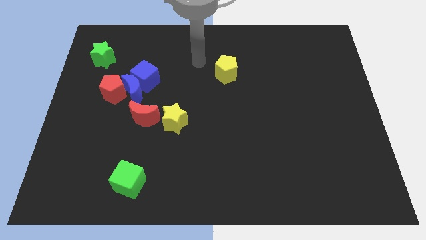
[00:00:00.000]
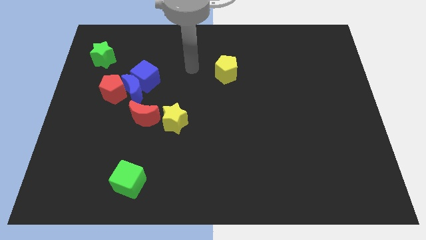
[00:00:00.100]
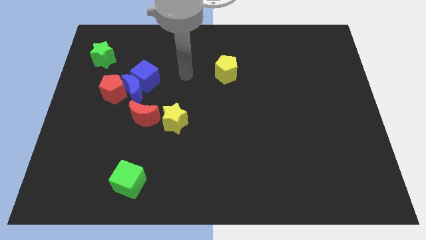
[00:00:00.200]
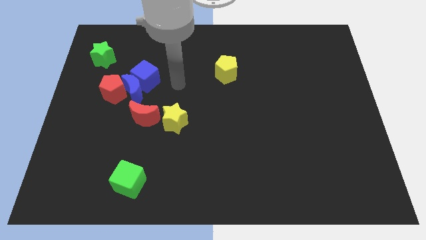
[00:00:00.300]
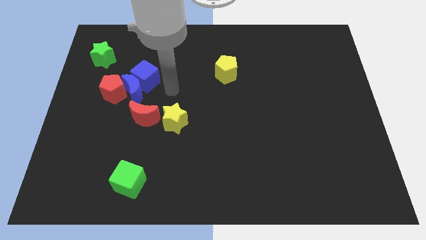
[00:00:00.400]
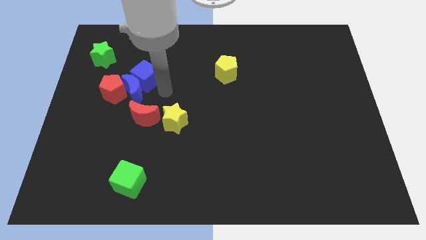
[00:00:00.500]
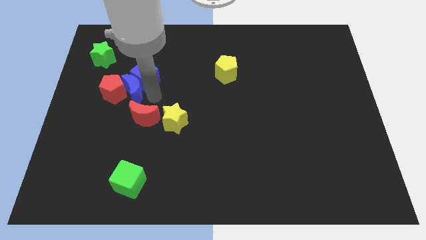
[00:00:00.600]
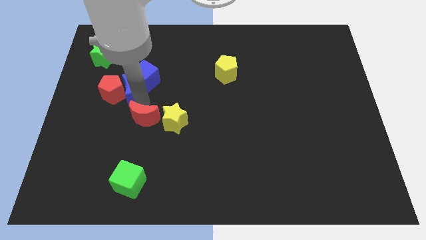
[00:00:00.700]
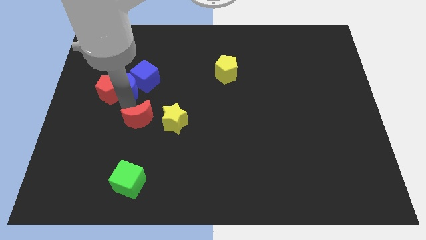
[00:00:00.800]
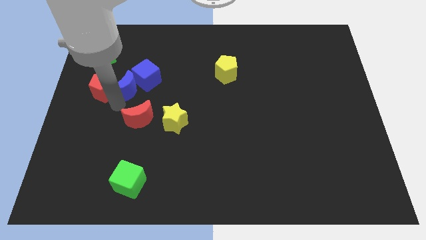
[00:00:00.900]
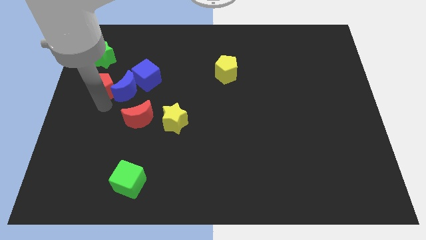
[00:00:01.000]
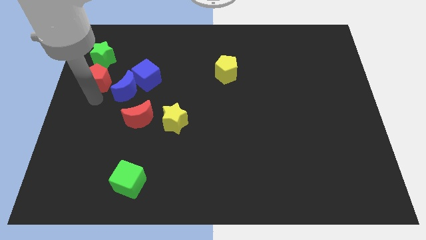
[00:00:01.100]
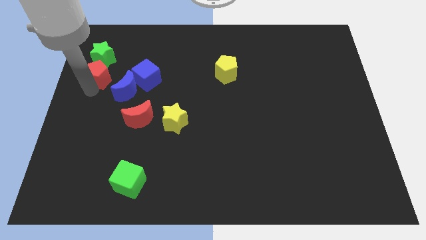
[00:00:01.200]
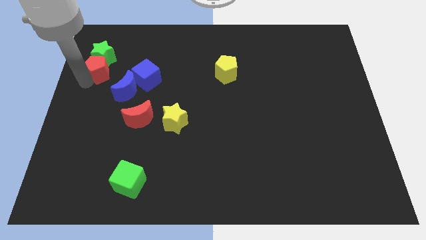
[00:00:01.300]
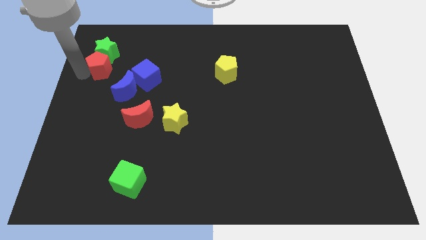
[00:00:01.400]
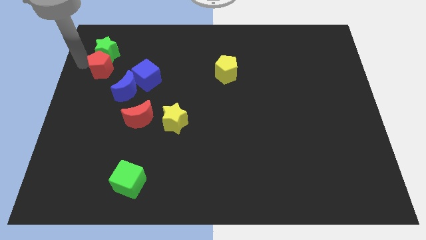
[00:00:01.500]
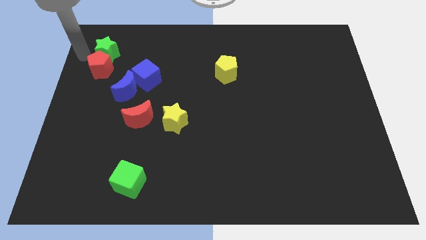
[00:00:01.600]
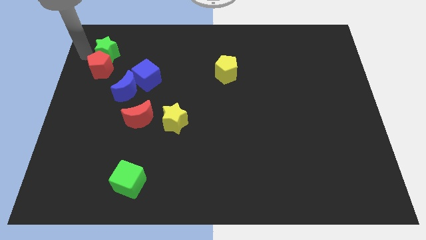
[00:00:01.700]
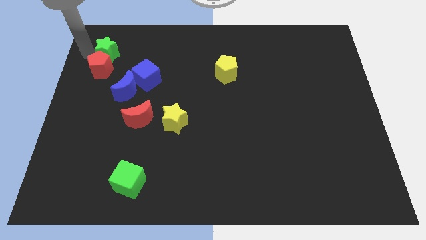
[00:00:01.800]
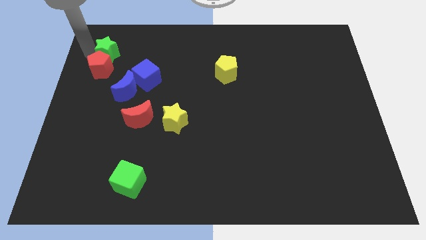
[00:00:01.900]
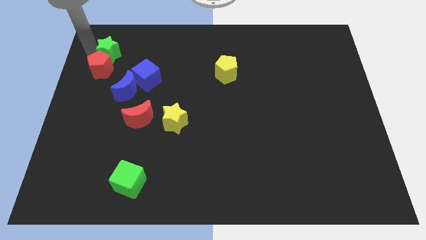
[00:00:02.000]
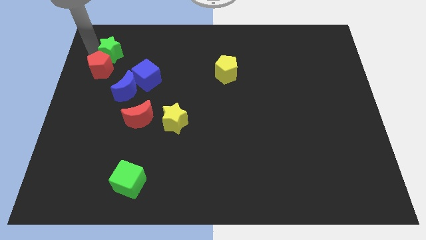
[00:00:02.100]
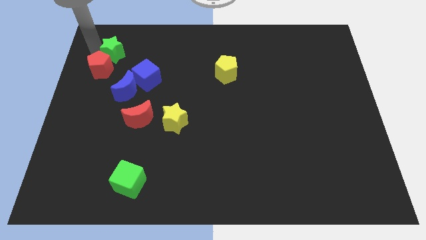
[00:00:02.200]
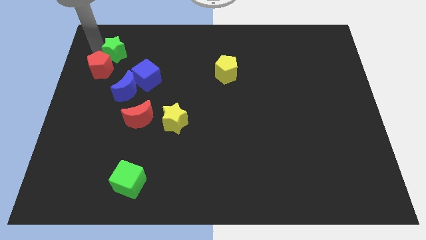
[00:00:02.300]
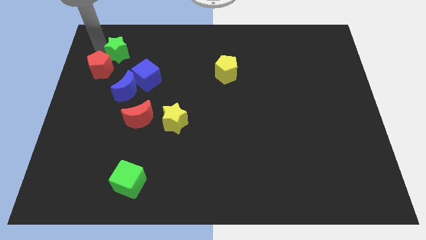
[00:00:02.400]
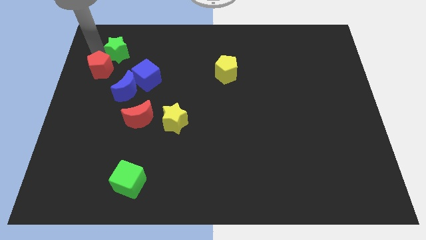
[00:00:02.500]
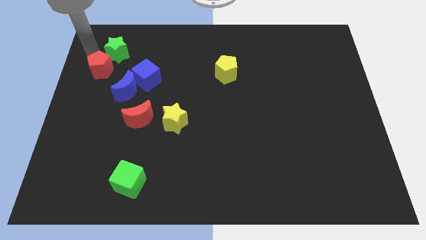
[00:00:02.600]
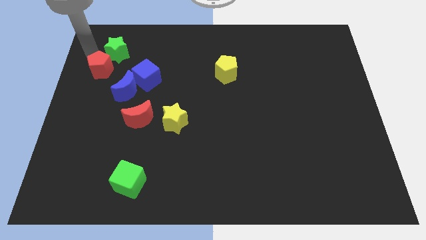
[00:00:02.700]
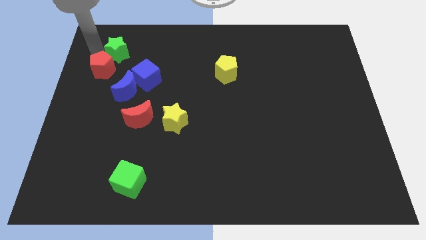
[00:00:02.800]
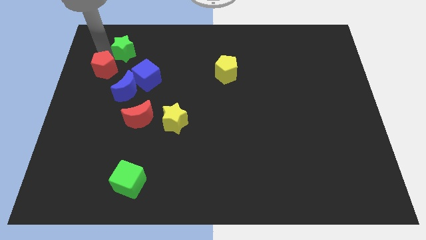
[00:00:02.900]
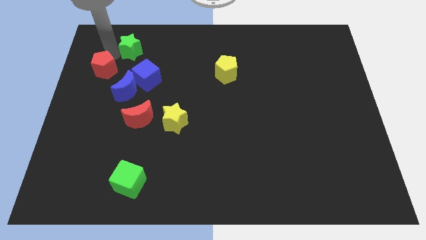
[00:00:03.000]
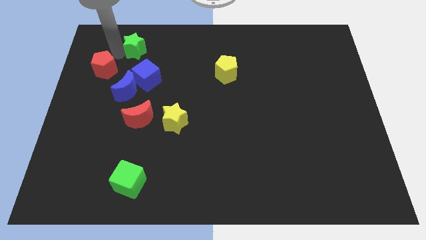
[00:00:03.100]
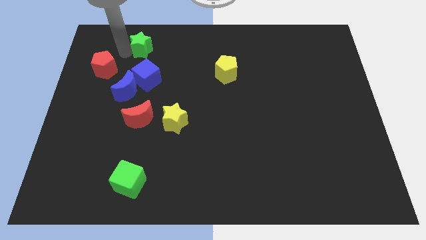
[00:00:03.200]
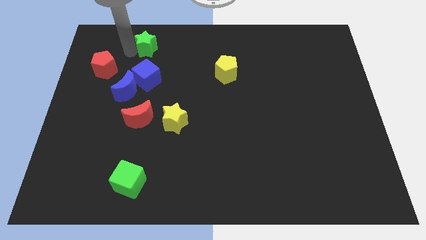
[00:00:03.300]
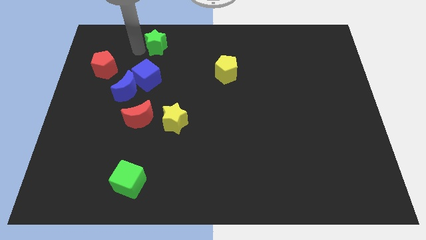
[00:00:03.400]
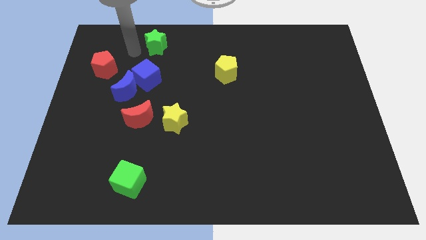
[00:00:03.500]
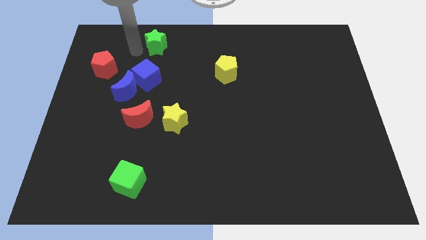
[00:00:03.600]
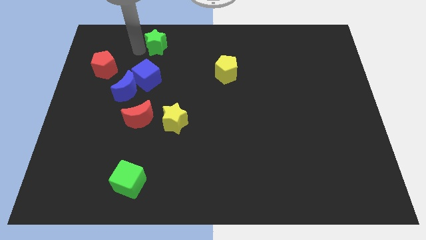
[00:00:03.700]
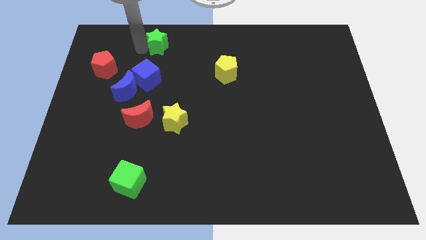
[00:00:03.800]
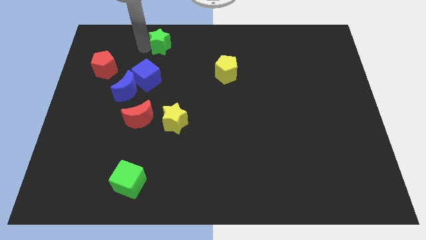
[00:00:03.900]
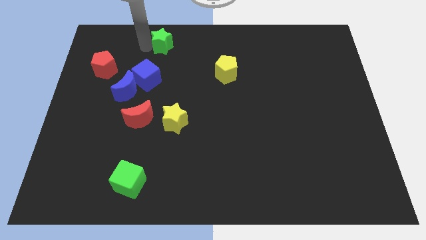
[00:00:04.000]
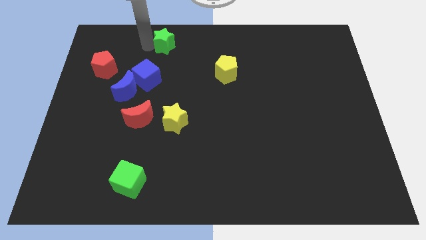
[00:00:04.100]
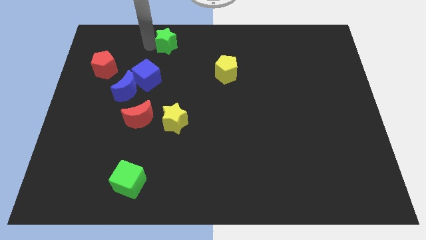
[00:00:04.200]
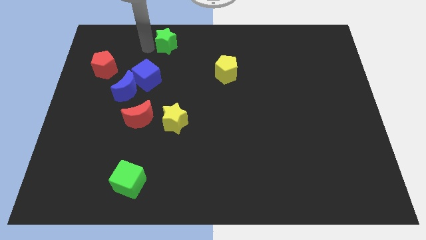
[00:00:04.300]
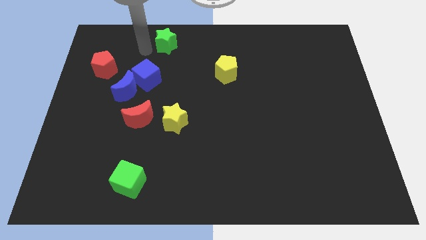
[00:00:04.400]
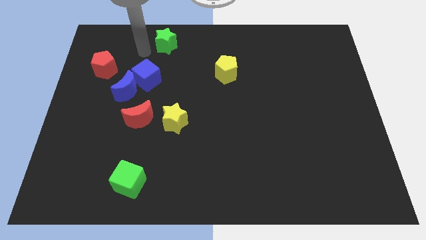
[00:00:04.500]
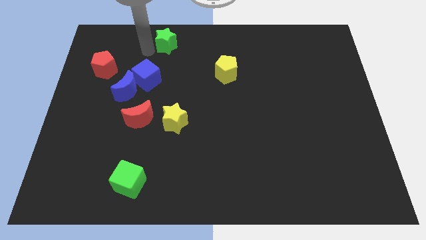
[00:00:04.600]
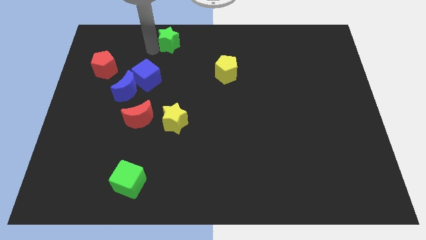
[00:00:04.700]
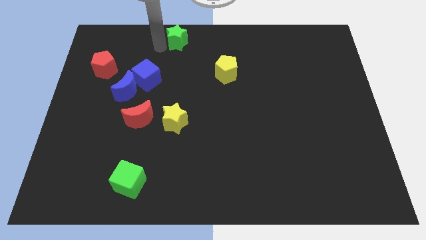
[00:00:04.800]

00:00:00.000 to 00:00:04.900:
move the green star to the towards your base

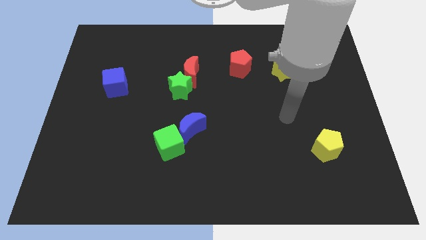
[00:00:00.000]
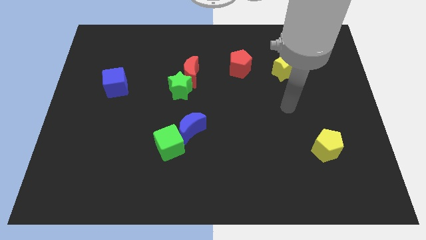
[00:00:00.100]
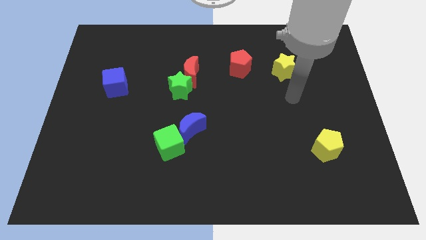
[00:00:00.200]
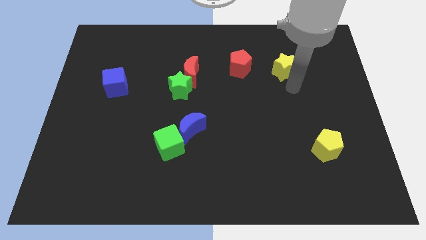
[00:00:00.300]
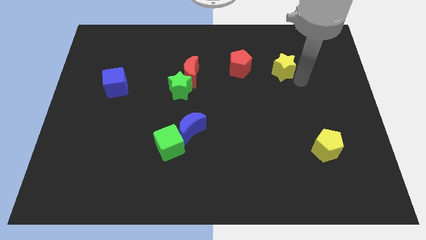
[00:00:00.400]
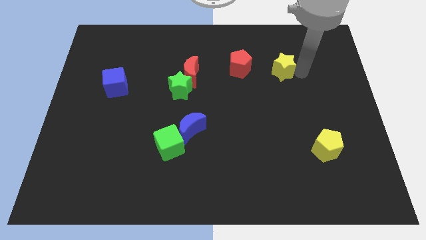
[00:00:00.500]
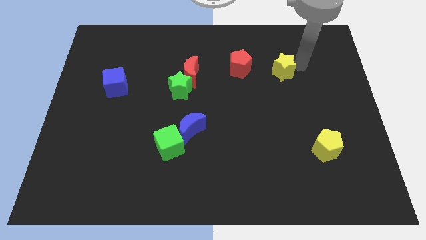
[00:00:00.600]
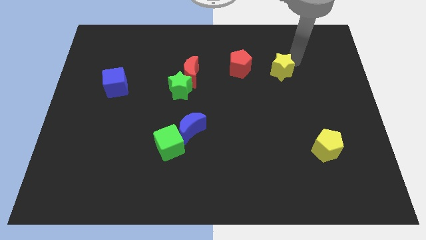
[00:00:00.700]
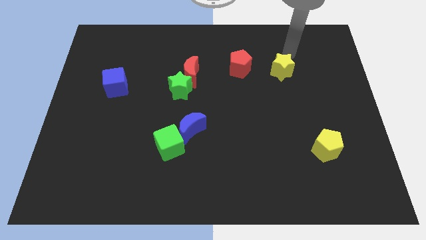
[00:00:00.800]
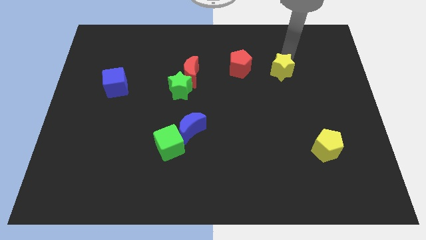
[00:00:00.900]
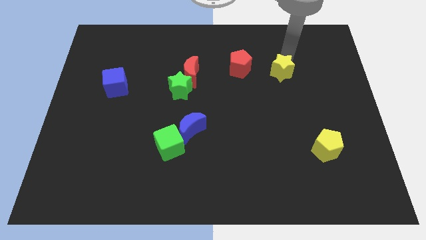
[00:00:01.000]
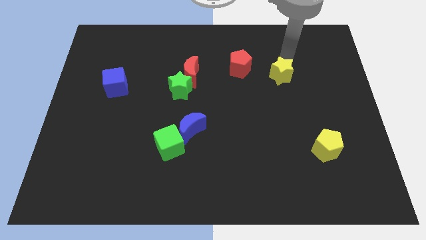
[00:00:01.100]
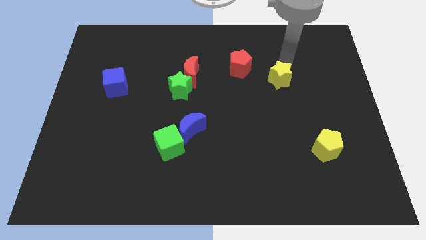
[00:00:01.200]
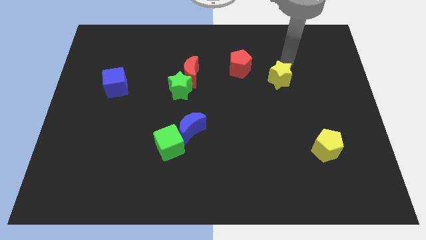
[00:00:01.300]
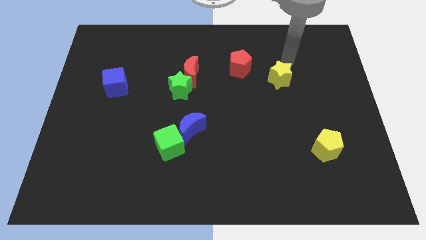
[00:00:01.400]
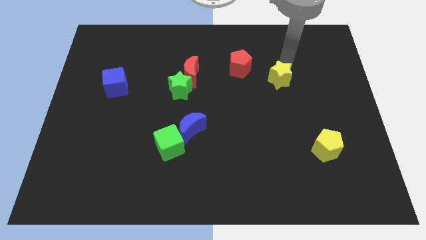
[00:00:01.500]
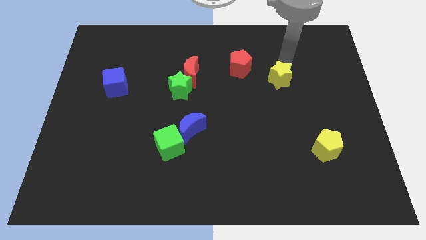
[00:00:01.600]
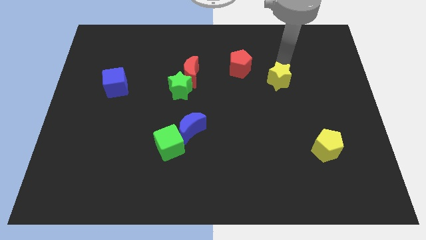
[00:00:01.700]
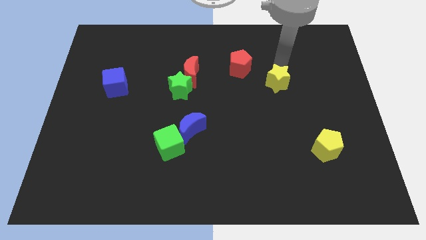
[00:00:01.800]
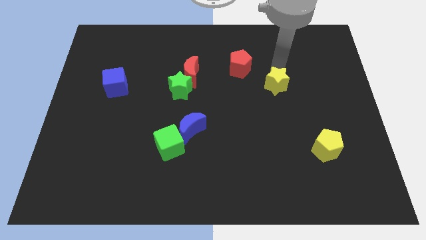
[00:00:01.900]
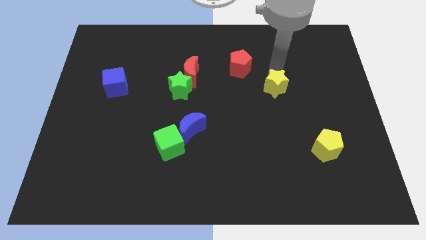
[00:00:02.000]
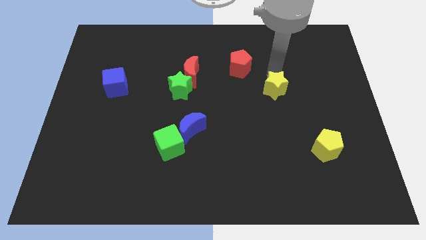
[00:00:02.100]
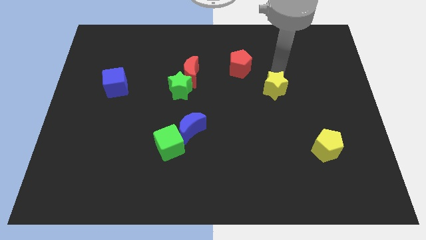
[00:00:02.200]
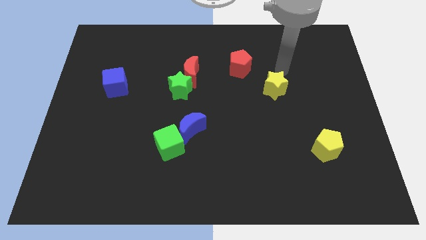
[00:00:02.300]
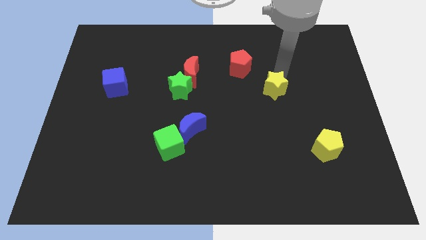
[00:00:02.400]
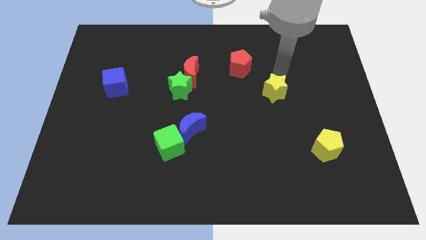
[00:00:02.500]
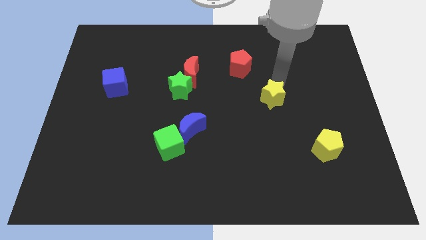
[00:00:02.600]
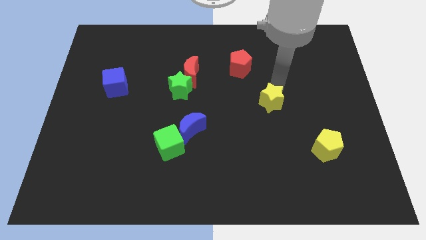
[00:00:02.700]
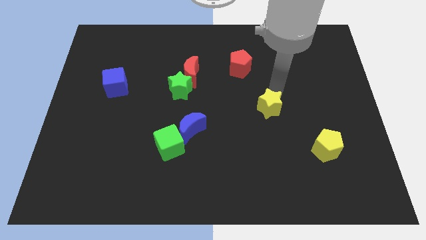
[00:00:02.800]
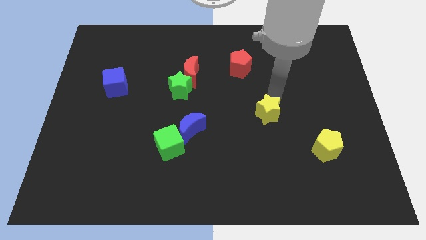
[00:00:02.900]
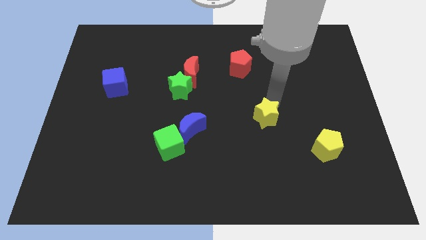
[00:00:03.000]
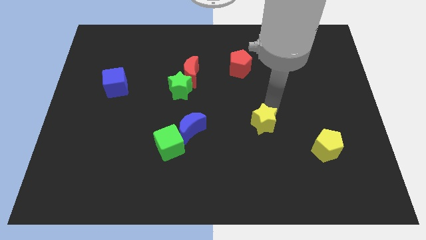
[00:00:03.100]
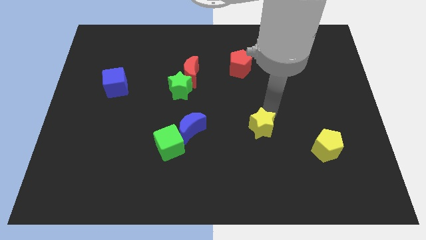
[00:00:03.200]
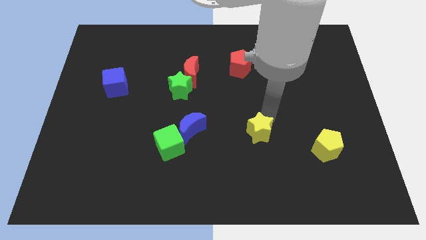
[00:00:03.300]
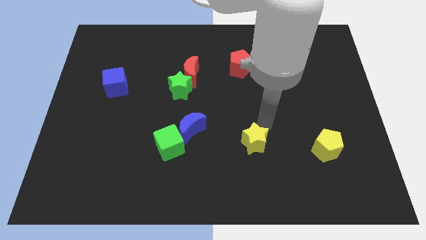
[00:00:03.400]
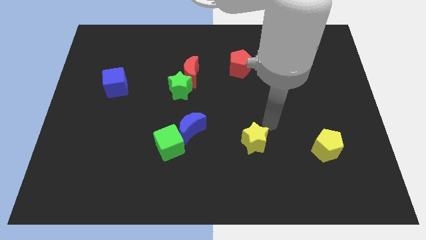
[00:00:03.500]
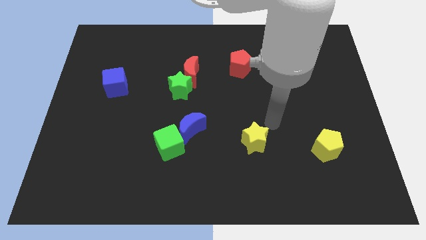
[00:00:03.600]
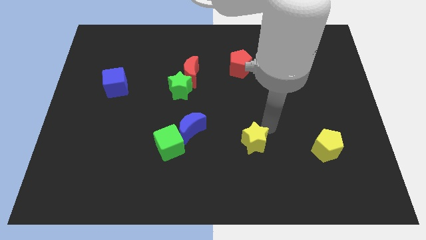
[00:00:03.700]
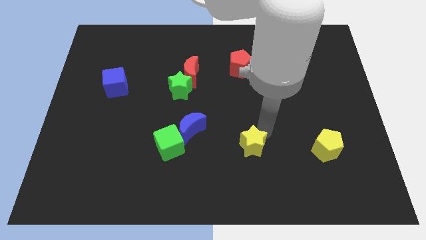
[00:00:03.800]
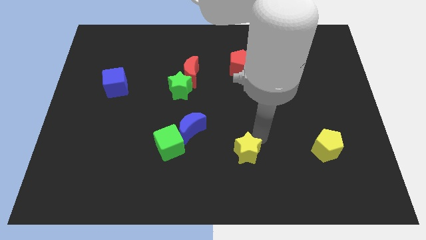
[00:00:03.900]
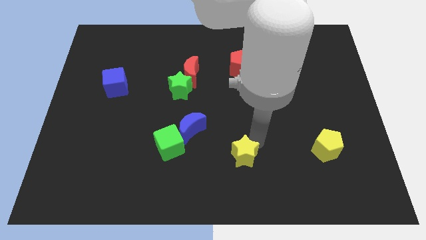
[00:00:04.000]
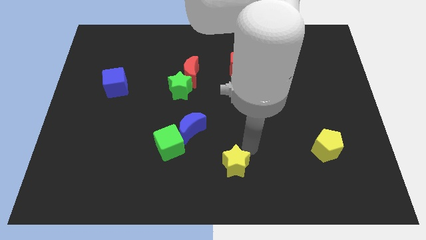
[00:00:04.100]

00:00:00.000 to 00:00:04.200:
push the yellow star to the bottom
